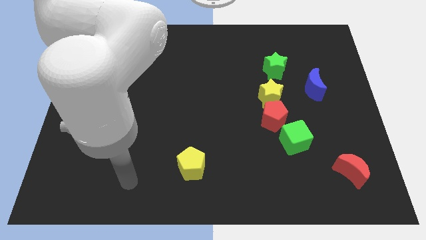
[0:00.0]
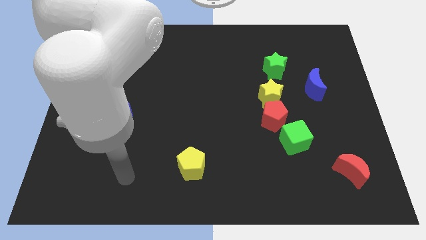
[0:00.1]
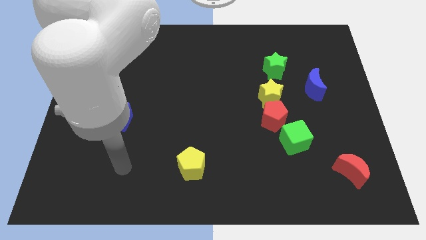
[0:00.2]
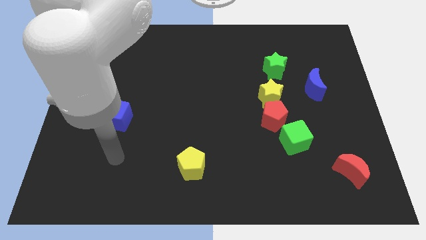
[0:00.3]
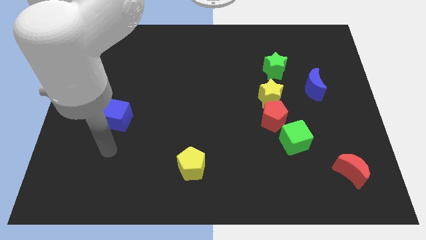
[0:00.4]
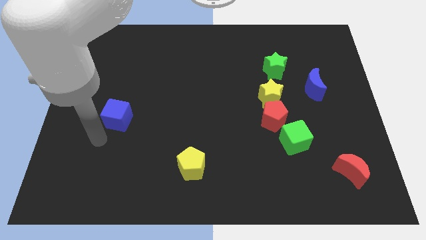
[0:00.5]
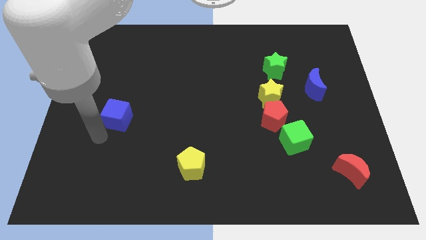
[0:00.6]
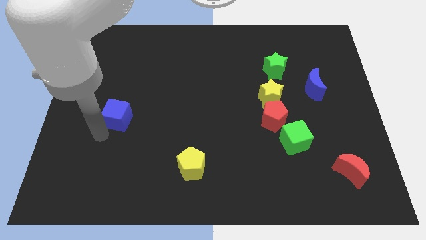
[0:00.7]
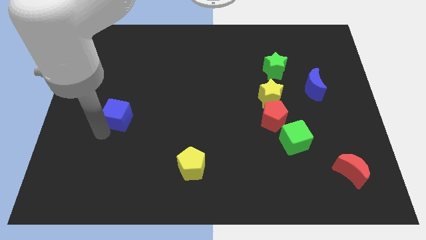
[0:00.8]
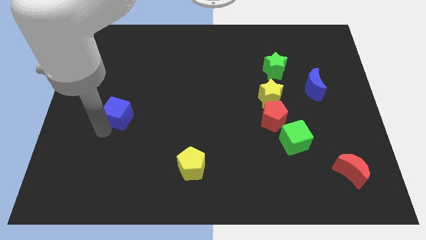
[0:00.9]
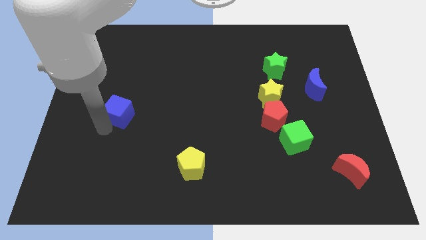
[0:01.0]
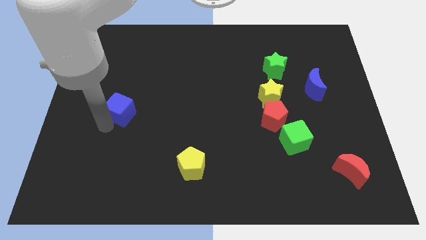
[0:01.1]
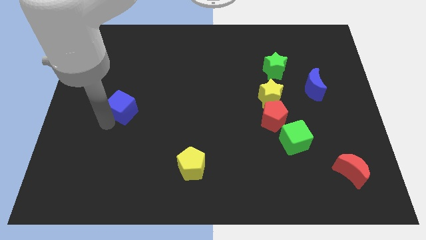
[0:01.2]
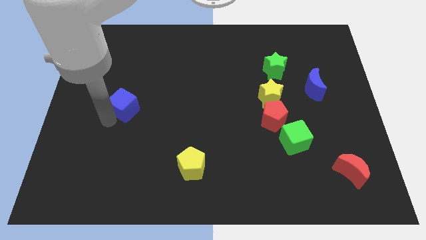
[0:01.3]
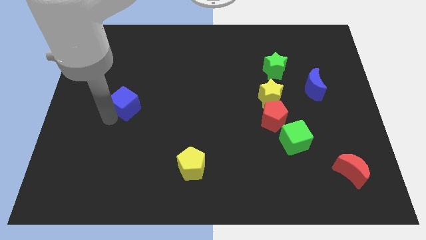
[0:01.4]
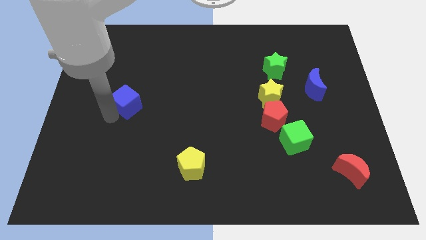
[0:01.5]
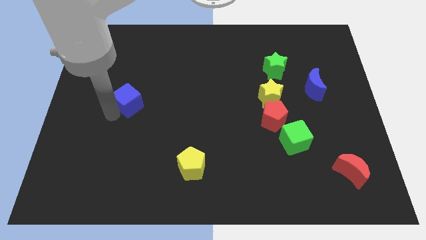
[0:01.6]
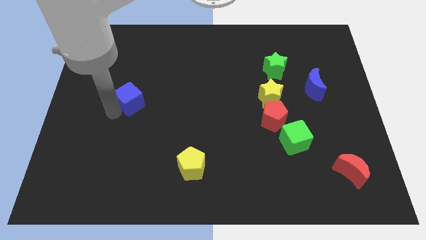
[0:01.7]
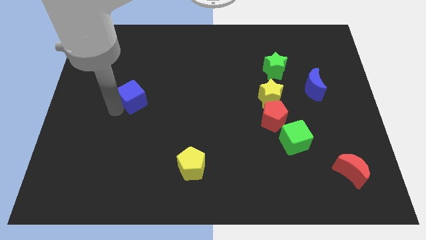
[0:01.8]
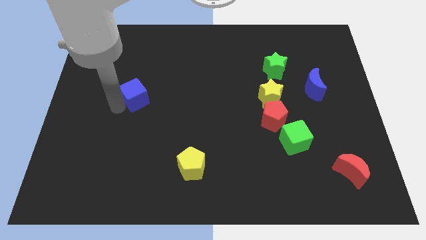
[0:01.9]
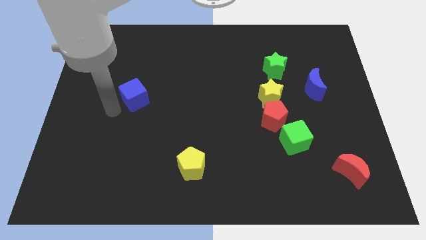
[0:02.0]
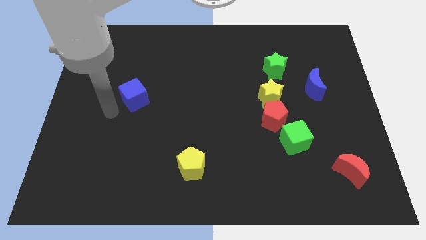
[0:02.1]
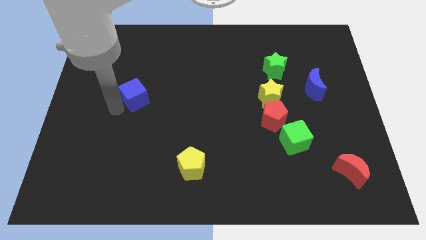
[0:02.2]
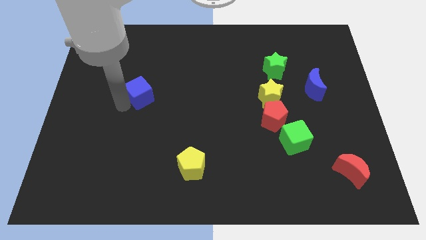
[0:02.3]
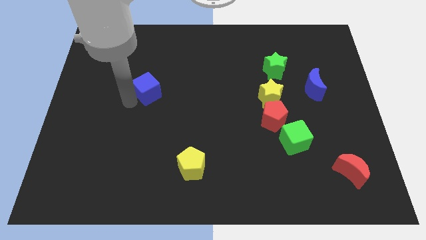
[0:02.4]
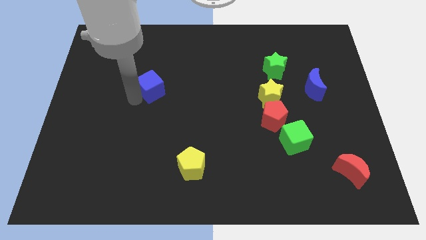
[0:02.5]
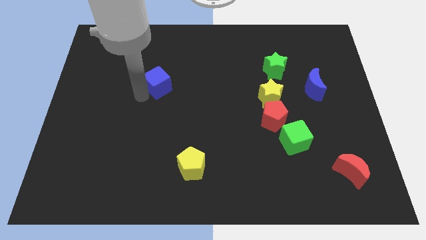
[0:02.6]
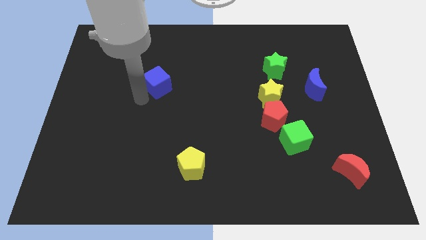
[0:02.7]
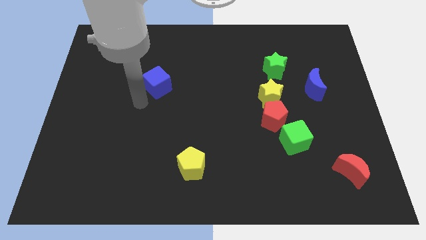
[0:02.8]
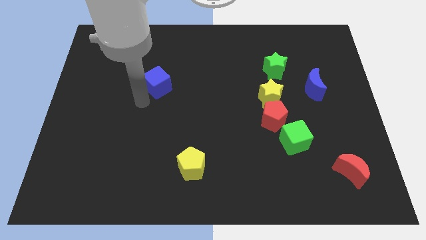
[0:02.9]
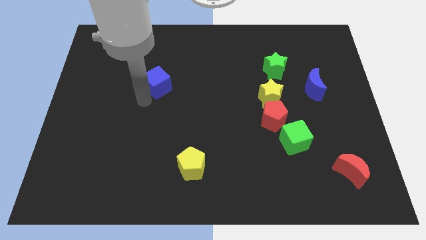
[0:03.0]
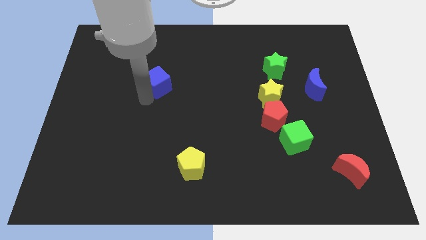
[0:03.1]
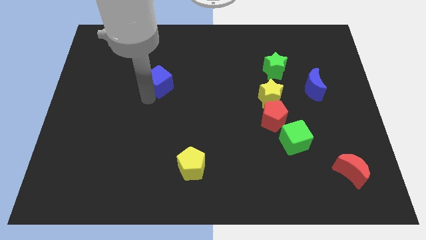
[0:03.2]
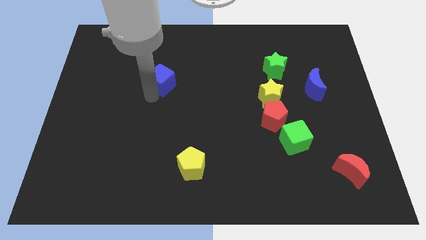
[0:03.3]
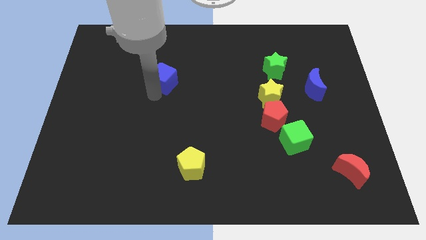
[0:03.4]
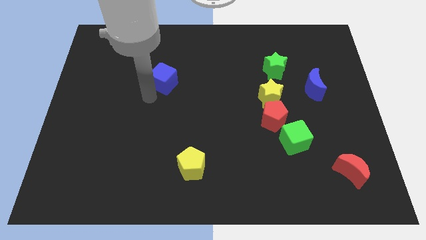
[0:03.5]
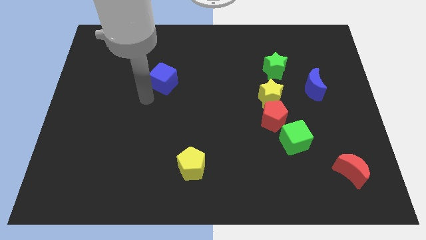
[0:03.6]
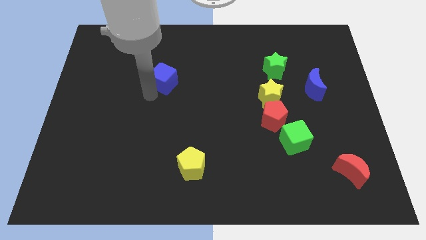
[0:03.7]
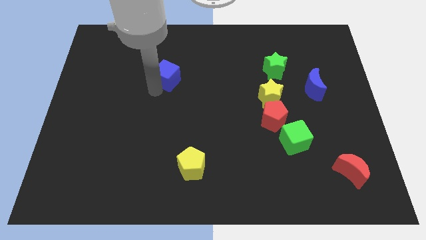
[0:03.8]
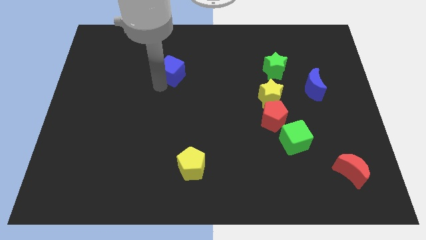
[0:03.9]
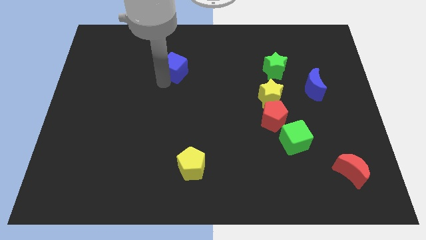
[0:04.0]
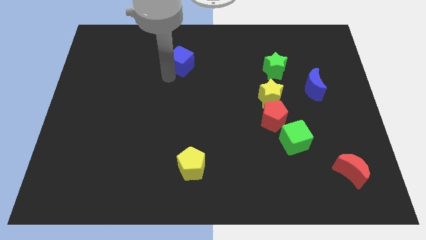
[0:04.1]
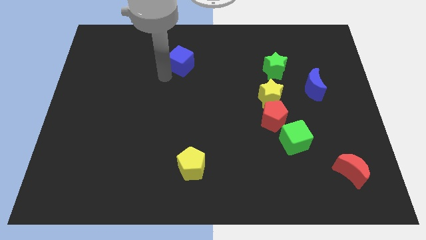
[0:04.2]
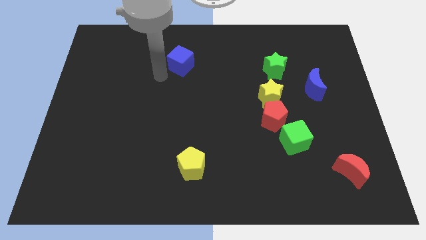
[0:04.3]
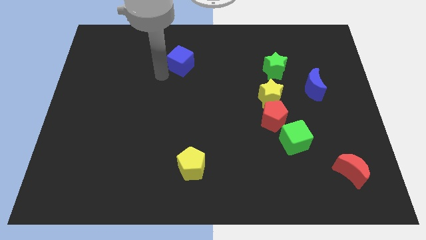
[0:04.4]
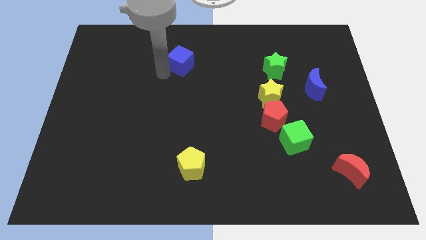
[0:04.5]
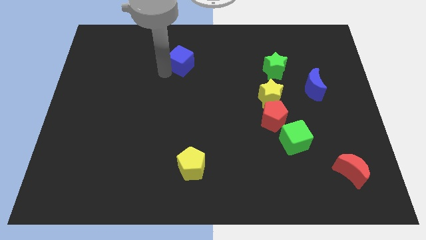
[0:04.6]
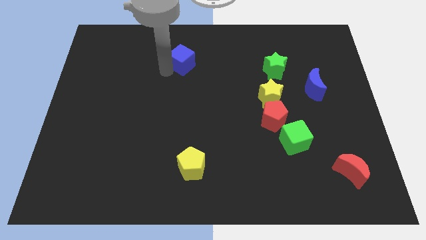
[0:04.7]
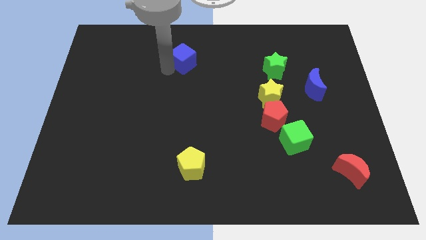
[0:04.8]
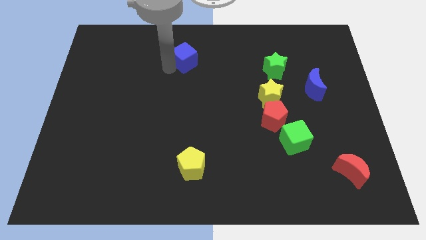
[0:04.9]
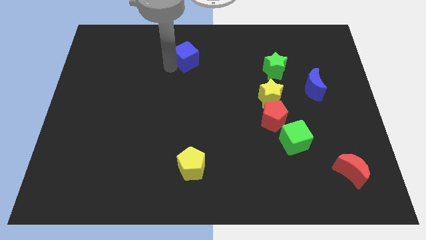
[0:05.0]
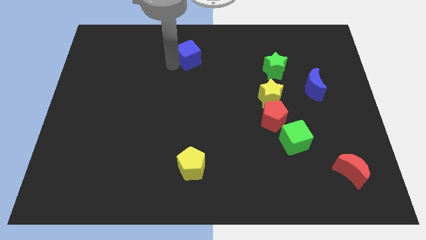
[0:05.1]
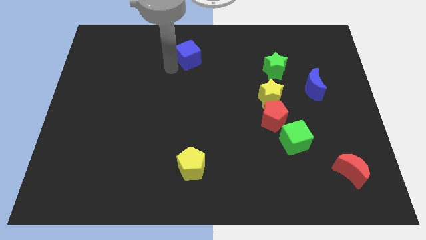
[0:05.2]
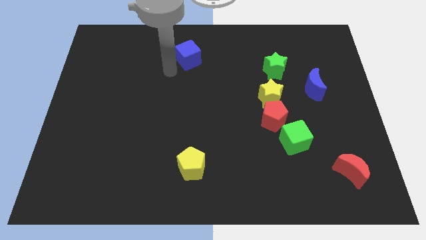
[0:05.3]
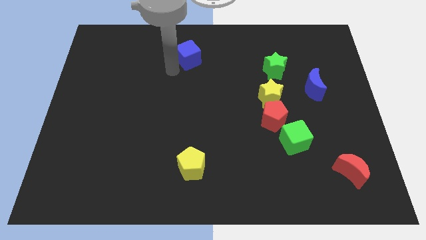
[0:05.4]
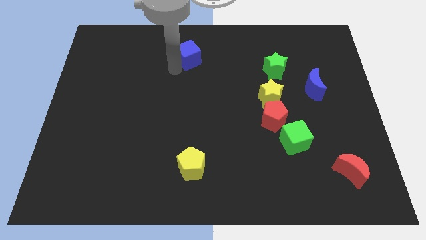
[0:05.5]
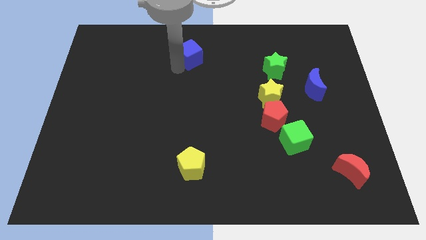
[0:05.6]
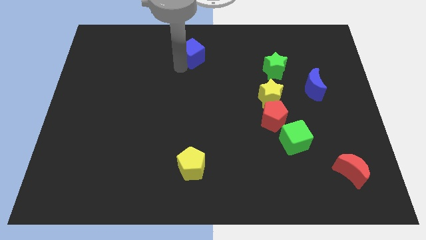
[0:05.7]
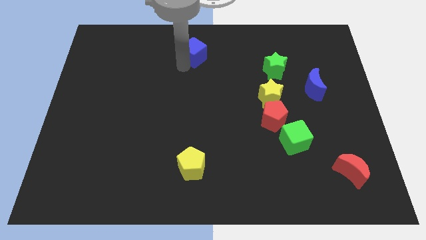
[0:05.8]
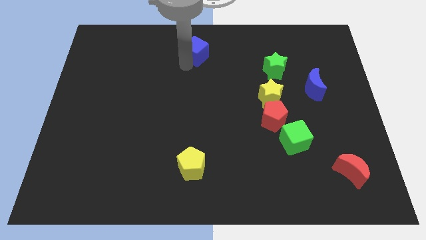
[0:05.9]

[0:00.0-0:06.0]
put the blue cube to the top side

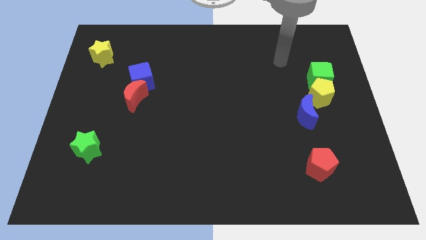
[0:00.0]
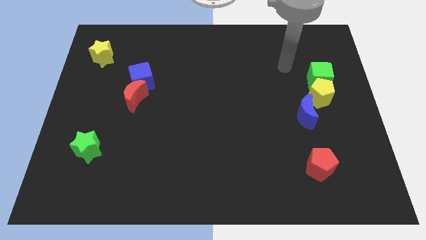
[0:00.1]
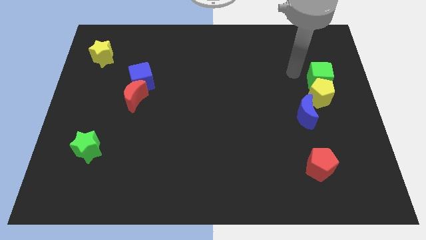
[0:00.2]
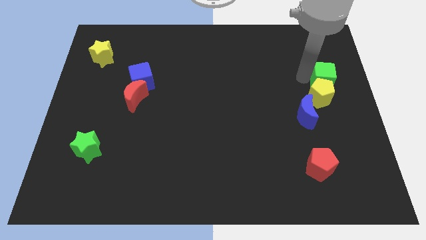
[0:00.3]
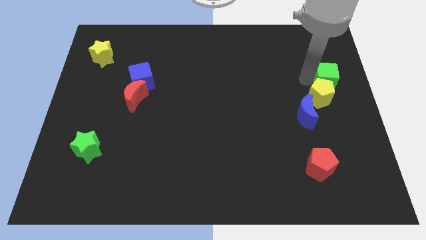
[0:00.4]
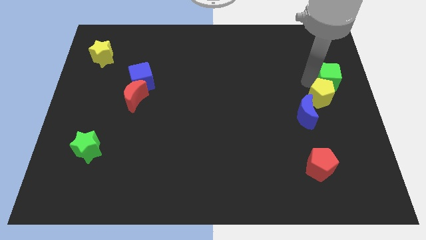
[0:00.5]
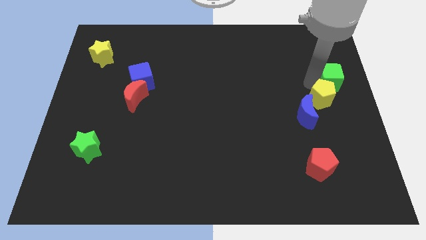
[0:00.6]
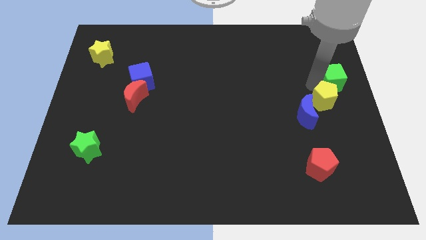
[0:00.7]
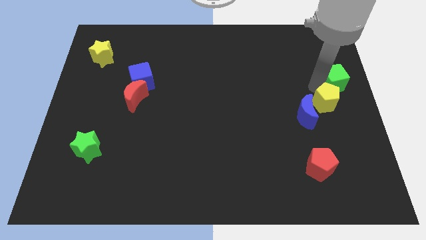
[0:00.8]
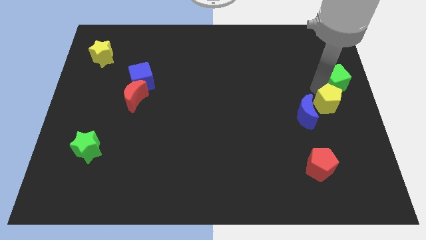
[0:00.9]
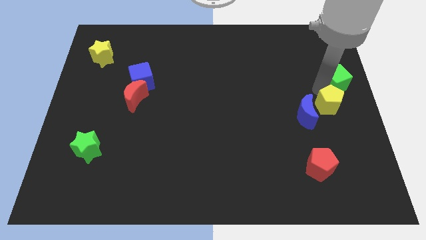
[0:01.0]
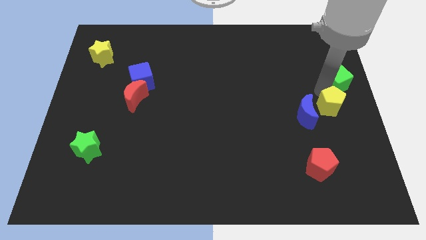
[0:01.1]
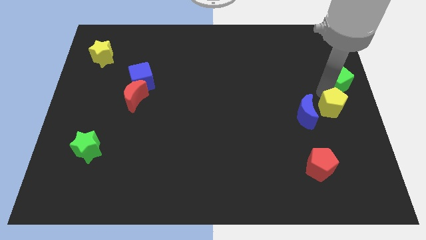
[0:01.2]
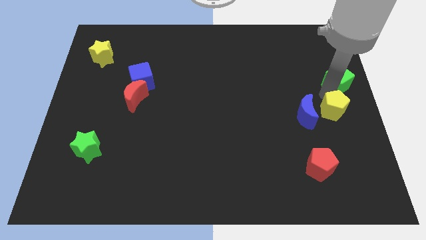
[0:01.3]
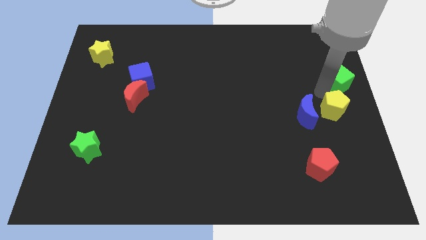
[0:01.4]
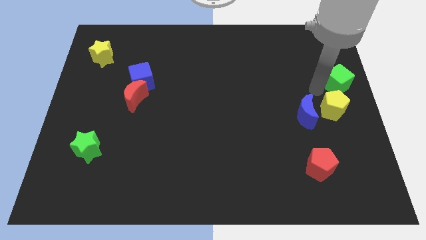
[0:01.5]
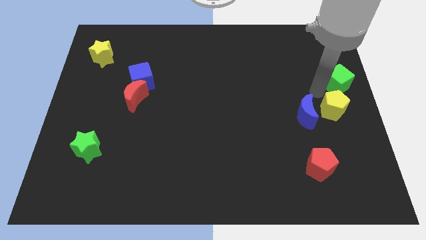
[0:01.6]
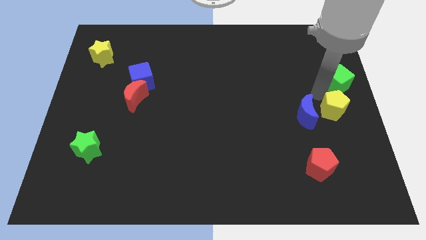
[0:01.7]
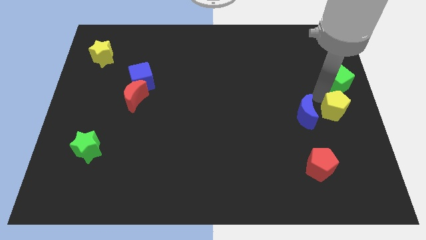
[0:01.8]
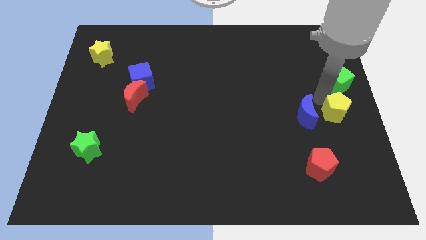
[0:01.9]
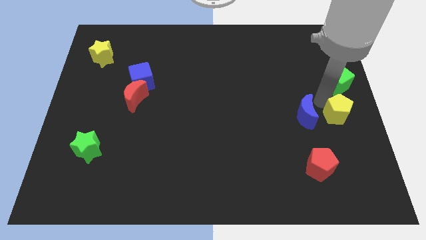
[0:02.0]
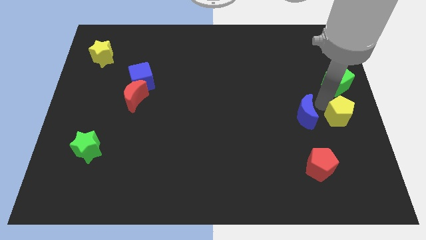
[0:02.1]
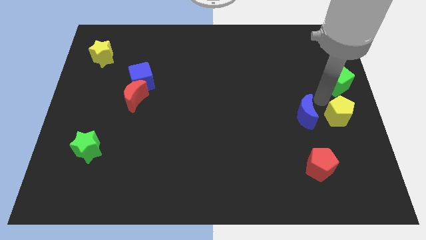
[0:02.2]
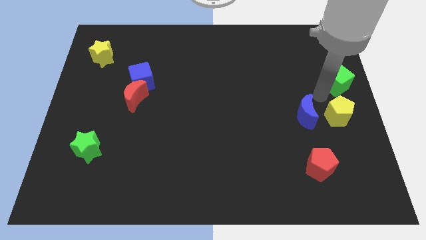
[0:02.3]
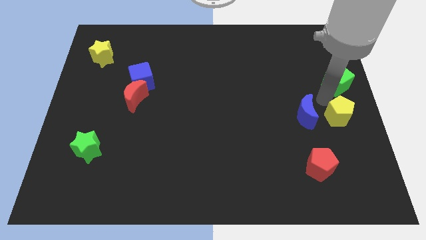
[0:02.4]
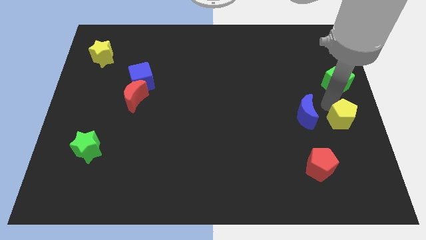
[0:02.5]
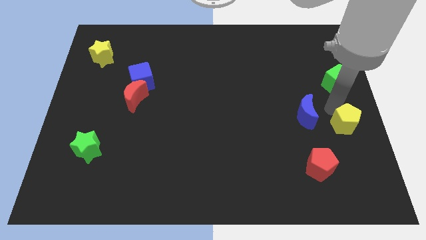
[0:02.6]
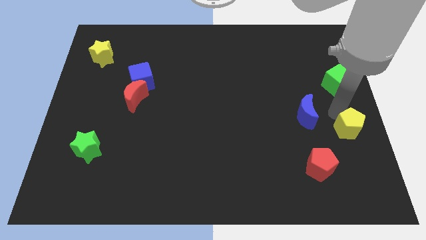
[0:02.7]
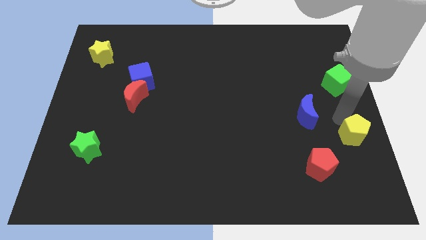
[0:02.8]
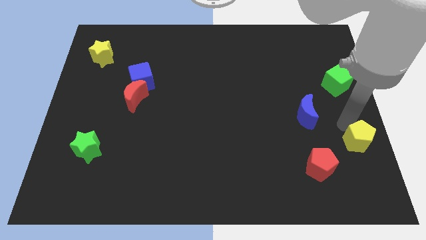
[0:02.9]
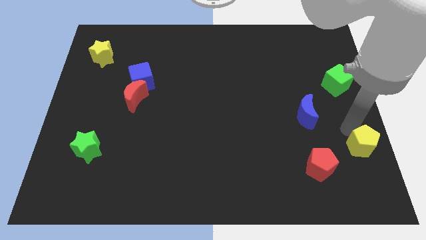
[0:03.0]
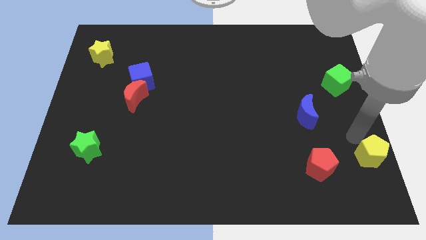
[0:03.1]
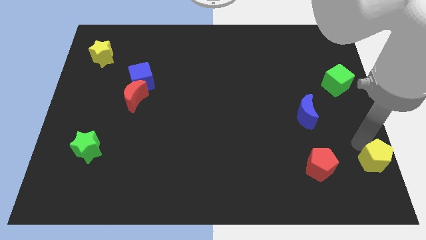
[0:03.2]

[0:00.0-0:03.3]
move the yellow pentagon to the bottom right of the board
